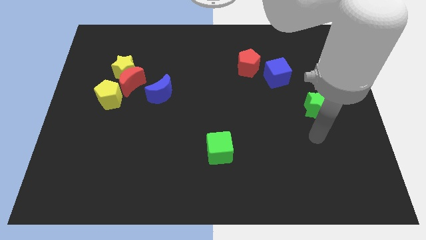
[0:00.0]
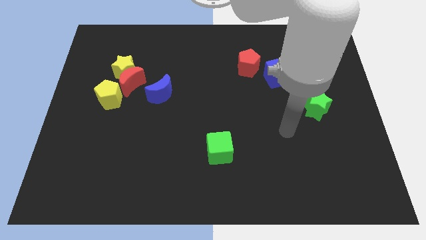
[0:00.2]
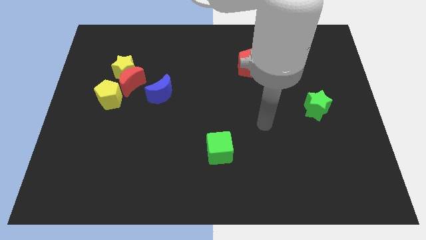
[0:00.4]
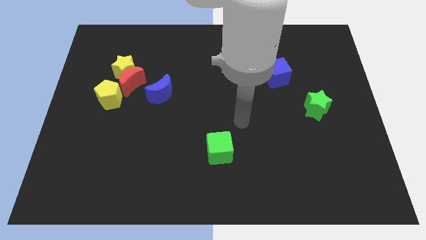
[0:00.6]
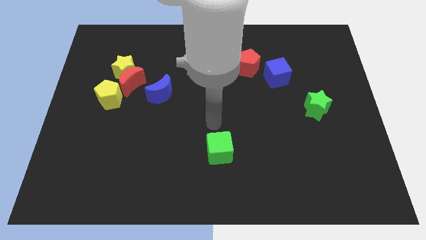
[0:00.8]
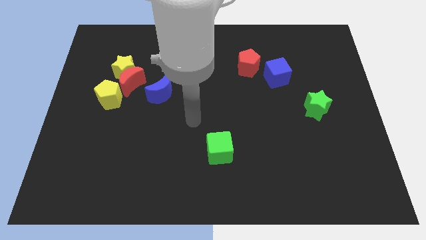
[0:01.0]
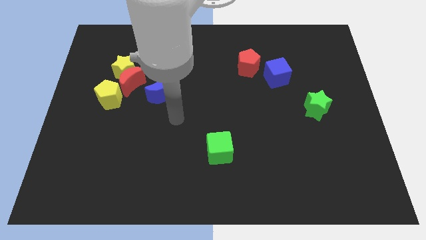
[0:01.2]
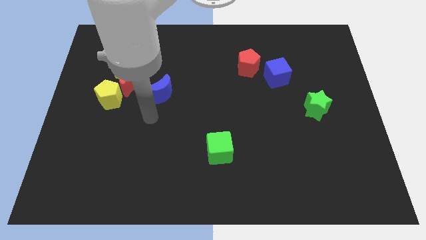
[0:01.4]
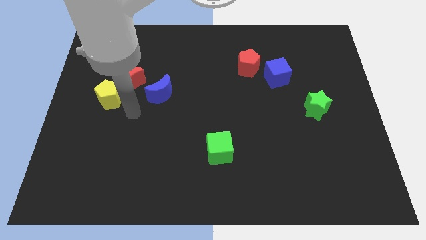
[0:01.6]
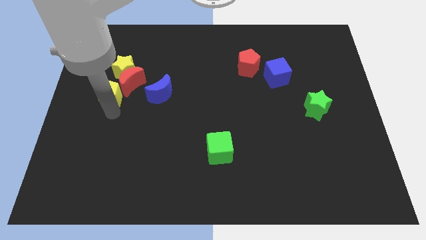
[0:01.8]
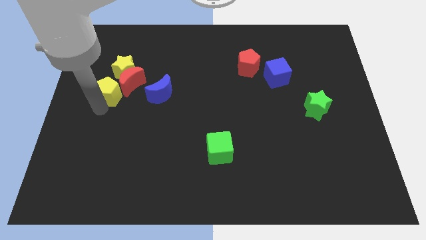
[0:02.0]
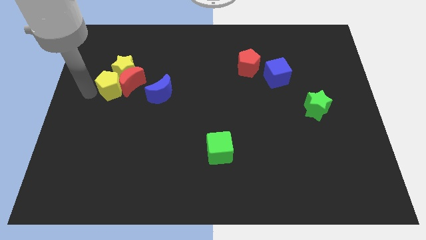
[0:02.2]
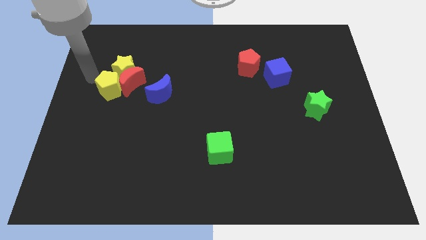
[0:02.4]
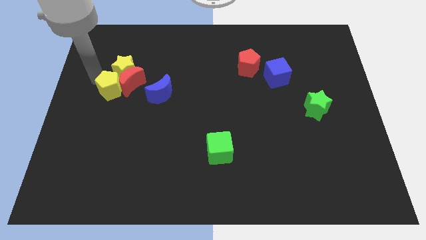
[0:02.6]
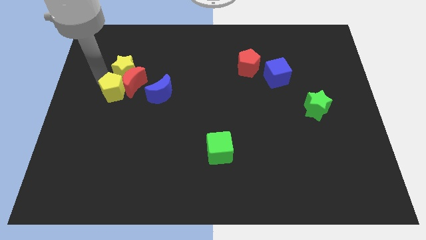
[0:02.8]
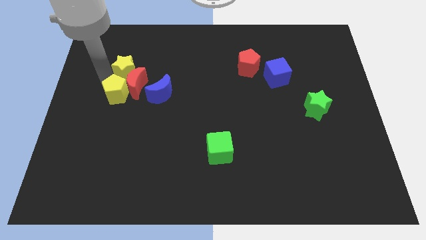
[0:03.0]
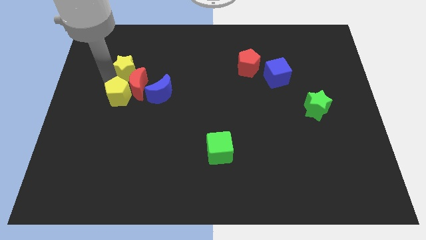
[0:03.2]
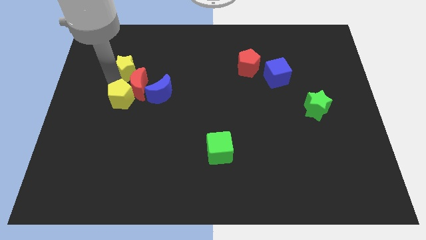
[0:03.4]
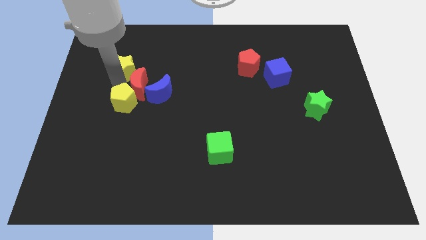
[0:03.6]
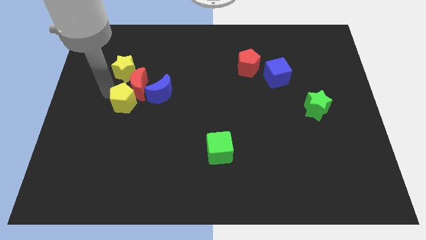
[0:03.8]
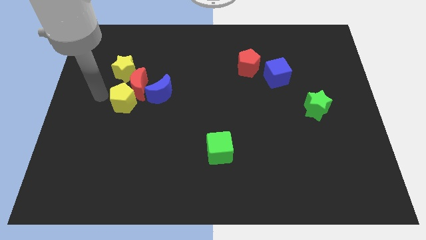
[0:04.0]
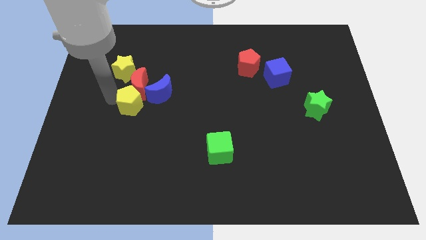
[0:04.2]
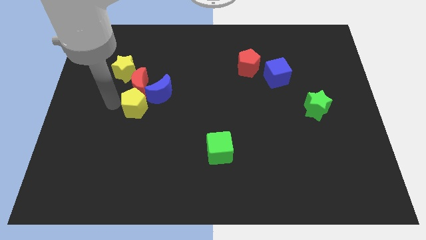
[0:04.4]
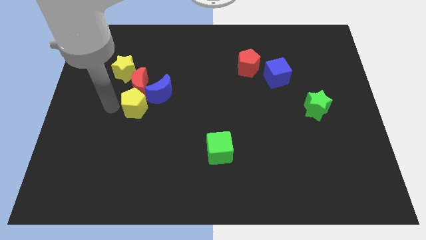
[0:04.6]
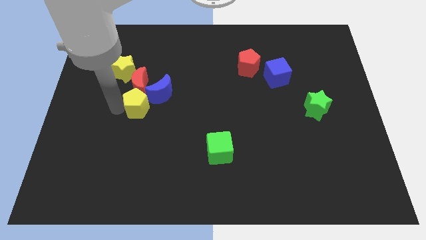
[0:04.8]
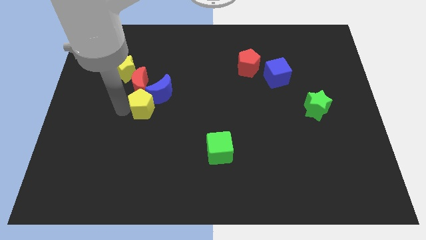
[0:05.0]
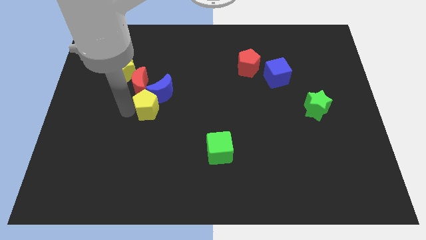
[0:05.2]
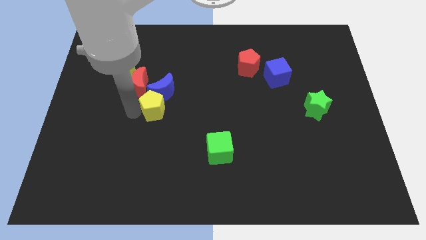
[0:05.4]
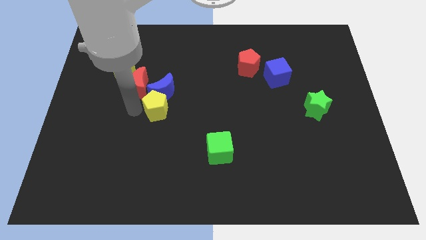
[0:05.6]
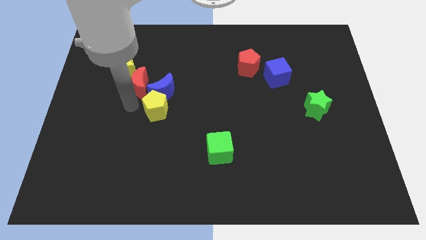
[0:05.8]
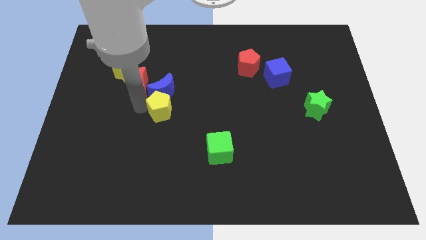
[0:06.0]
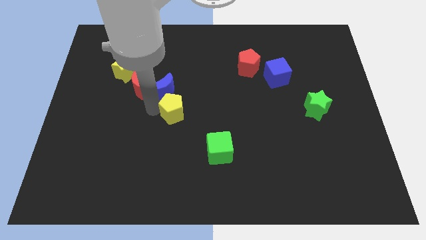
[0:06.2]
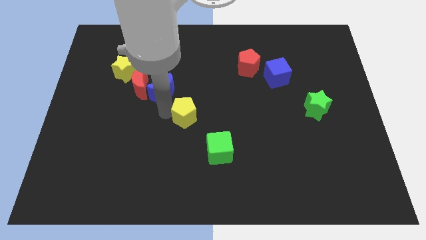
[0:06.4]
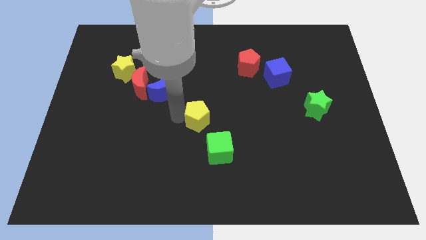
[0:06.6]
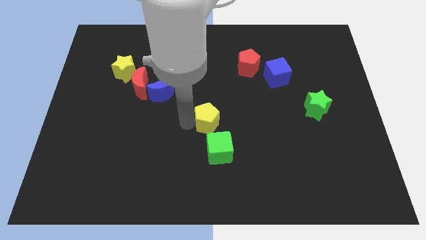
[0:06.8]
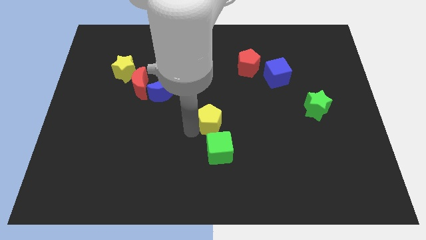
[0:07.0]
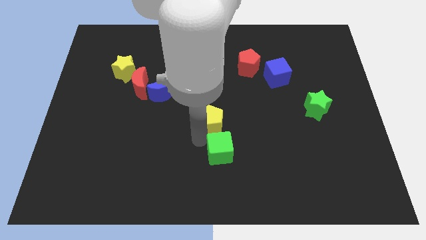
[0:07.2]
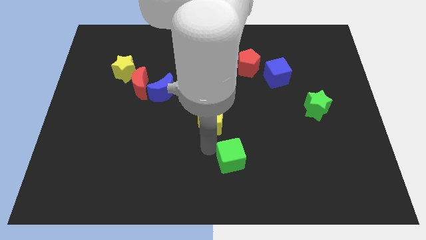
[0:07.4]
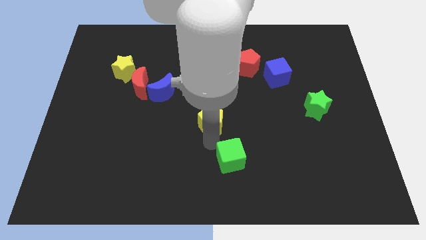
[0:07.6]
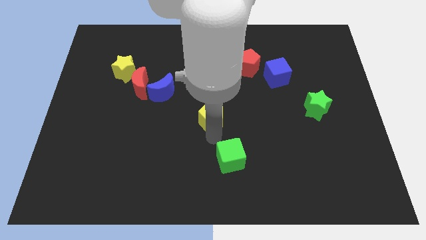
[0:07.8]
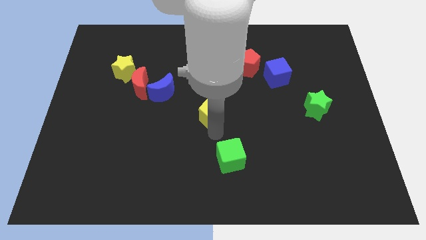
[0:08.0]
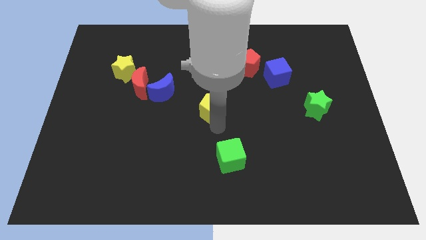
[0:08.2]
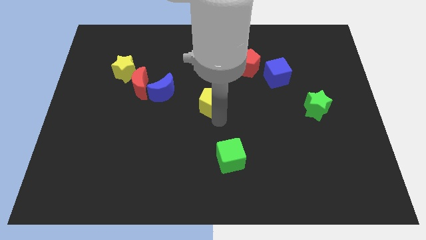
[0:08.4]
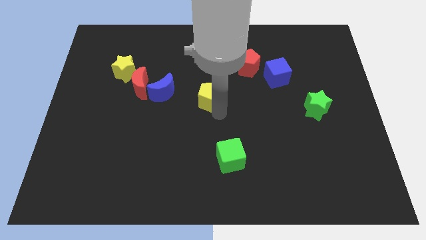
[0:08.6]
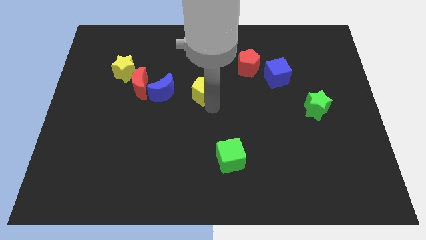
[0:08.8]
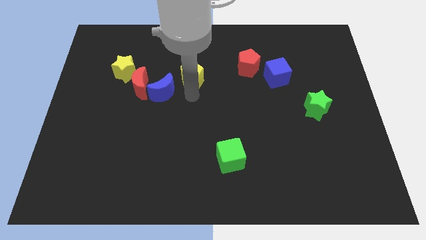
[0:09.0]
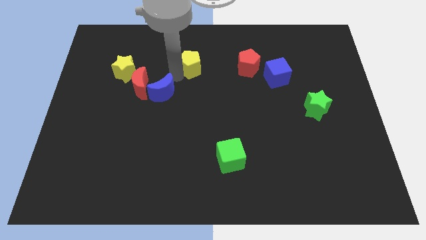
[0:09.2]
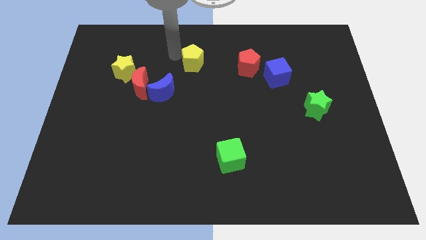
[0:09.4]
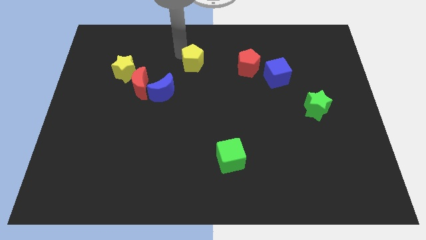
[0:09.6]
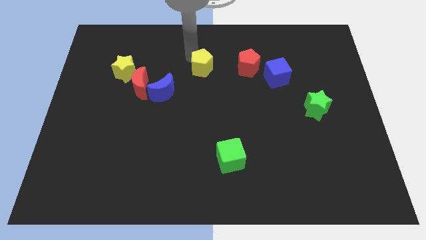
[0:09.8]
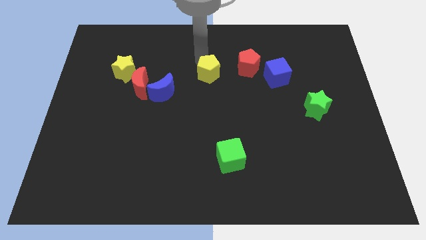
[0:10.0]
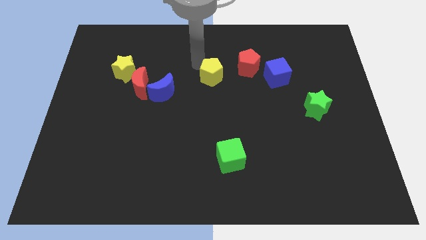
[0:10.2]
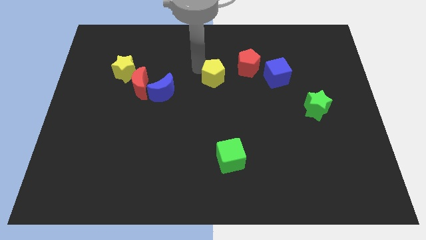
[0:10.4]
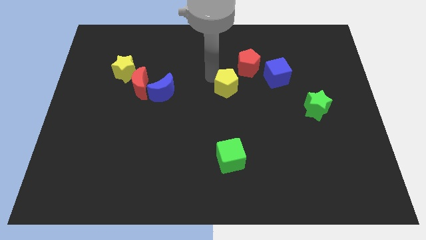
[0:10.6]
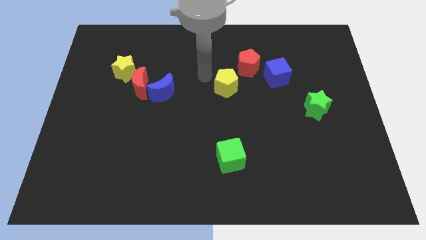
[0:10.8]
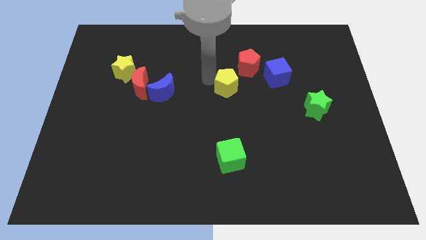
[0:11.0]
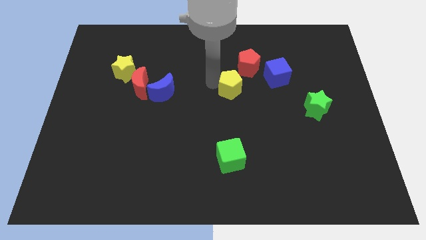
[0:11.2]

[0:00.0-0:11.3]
push the yellow pentagon to the bottom of the red pentagon
